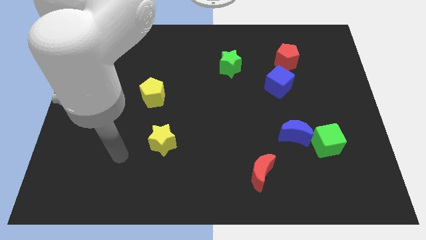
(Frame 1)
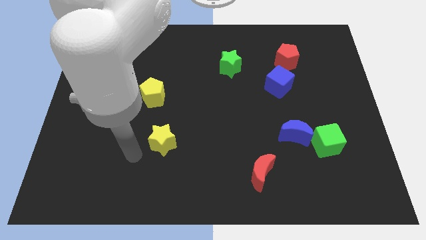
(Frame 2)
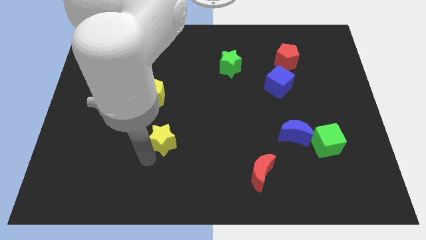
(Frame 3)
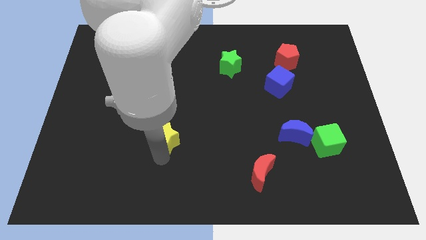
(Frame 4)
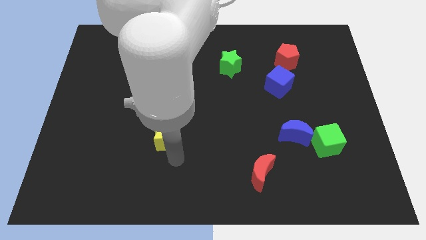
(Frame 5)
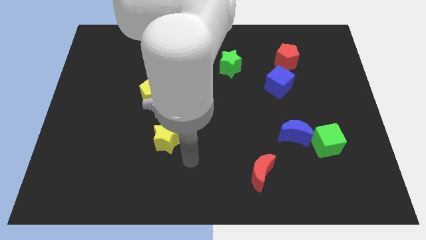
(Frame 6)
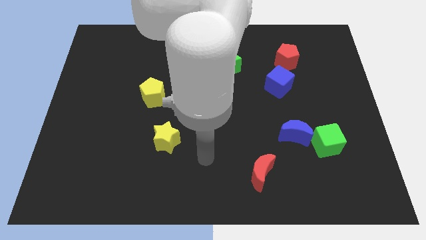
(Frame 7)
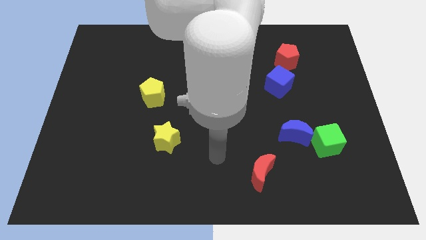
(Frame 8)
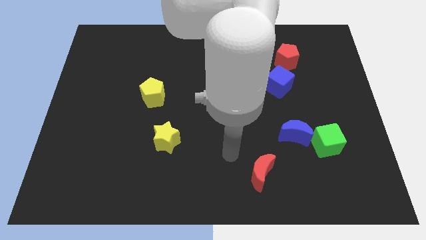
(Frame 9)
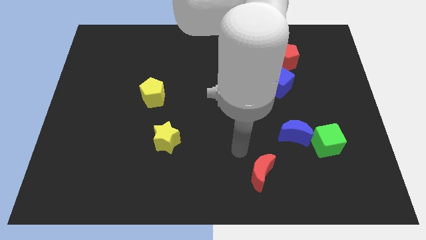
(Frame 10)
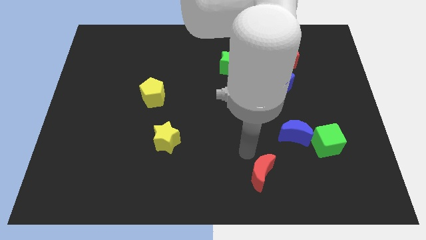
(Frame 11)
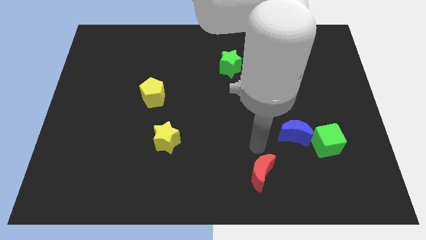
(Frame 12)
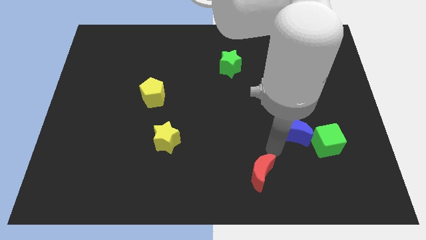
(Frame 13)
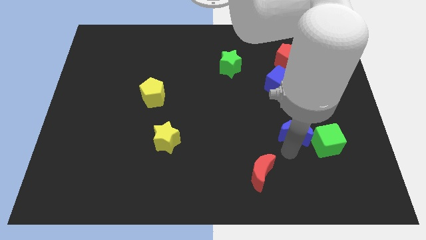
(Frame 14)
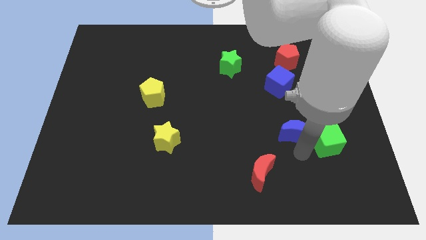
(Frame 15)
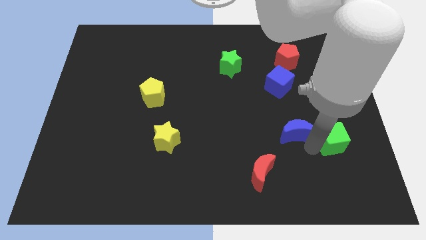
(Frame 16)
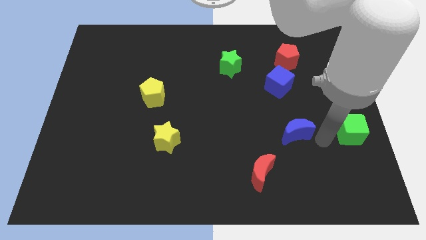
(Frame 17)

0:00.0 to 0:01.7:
pull the blue moon apart from the green cube

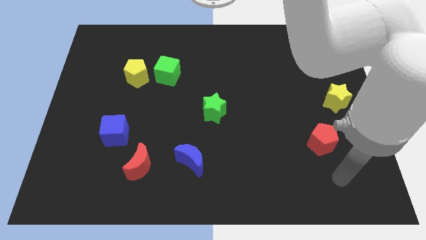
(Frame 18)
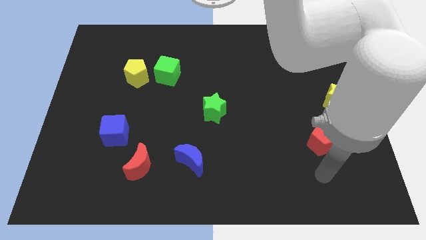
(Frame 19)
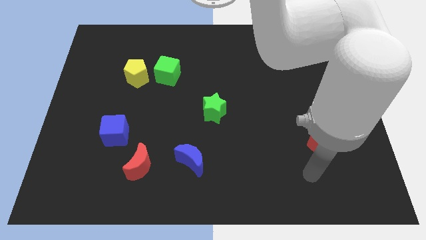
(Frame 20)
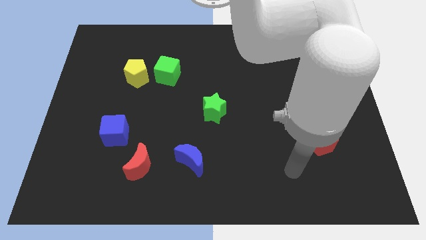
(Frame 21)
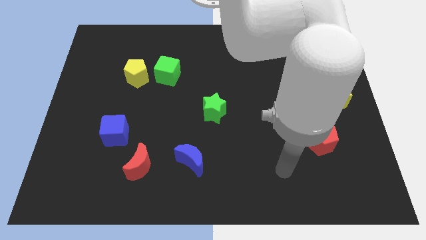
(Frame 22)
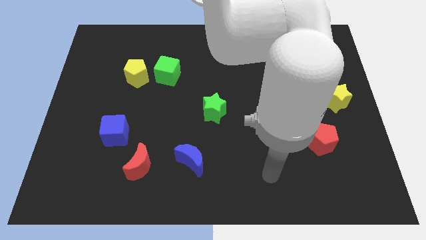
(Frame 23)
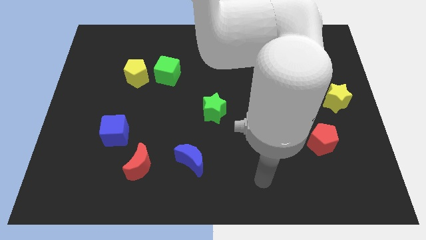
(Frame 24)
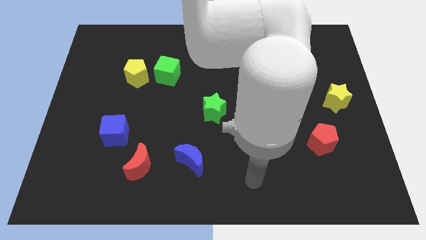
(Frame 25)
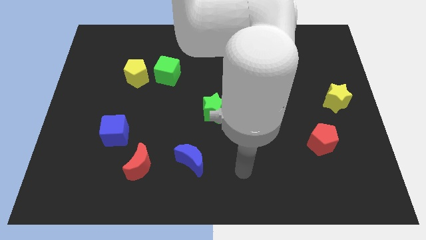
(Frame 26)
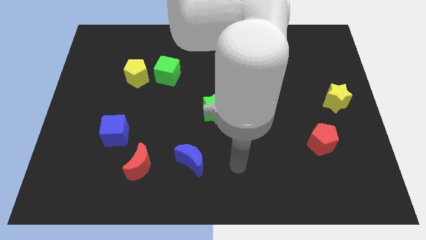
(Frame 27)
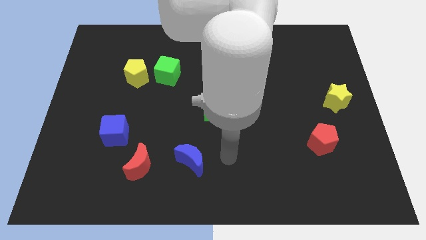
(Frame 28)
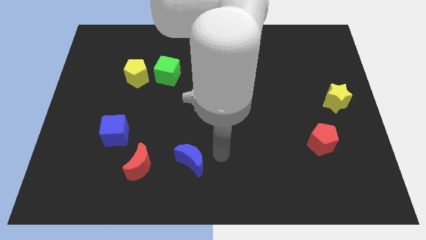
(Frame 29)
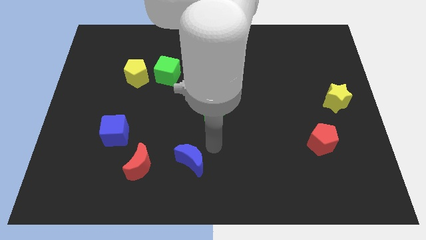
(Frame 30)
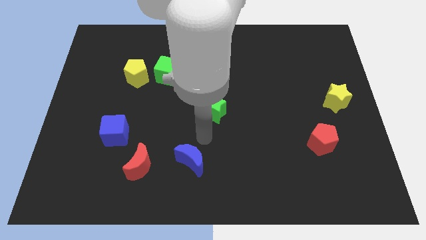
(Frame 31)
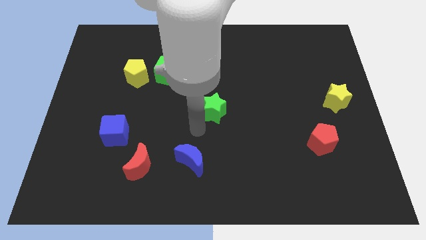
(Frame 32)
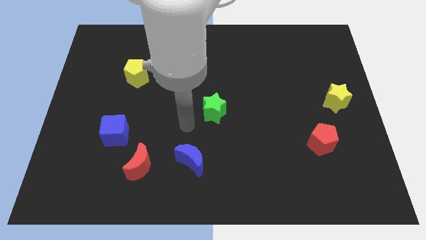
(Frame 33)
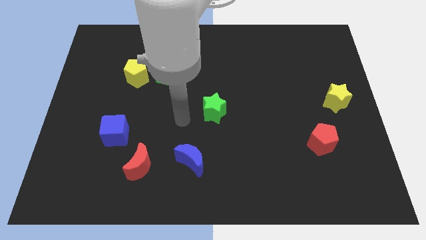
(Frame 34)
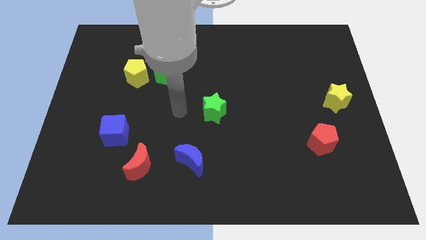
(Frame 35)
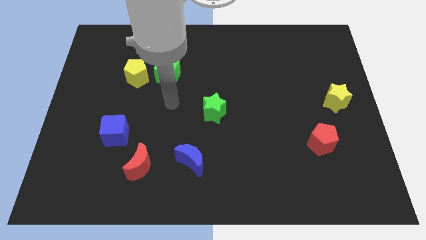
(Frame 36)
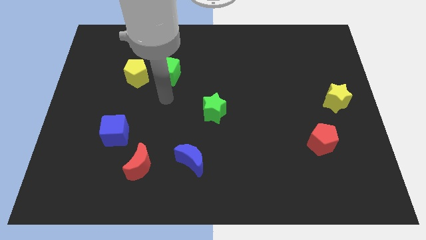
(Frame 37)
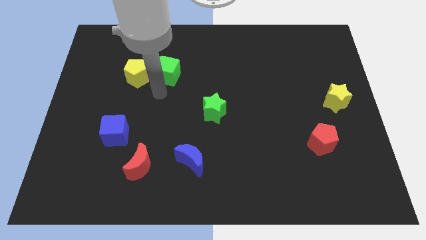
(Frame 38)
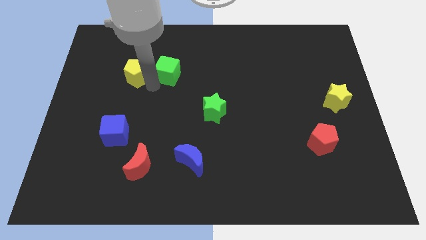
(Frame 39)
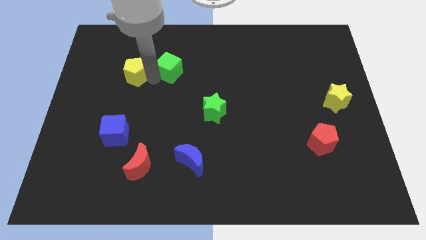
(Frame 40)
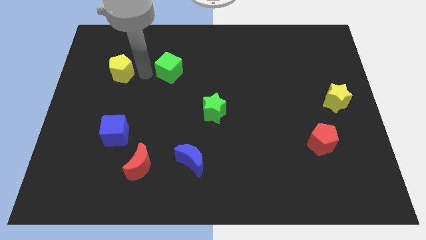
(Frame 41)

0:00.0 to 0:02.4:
pull the green cube apart from the yellow pentagon

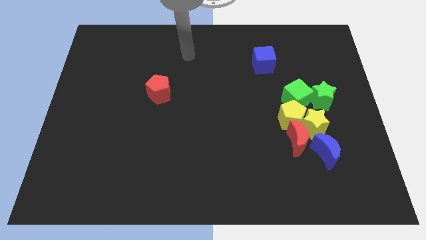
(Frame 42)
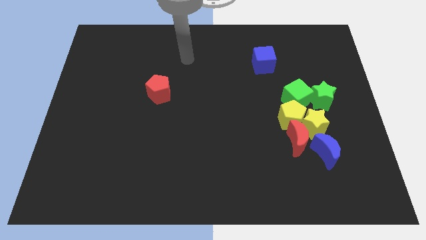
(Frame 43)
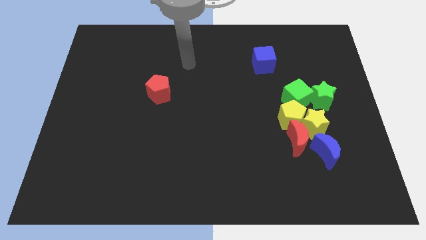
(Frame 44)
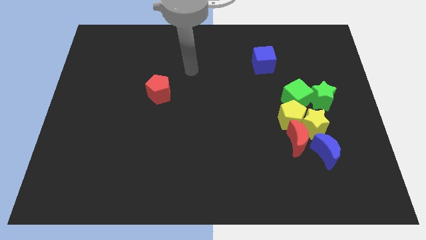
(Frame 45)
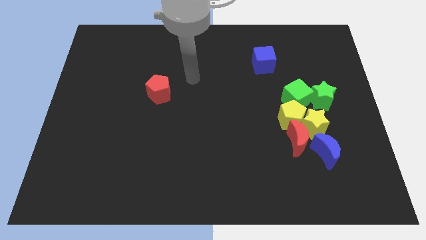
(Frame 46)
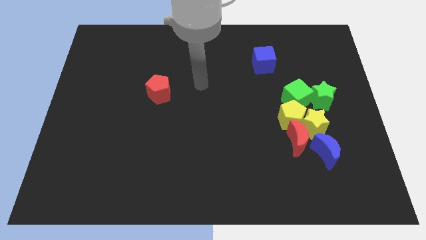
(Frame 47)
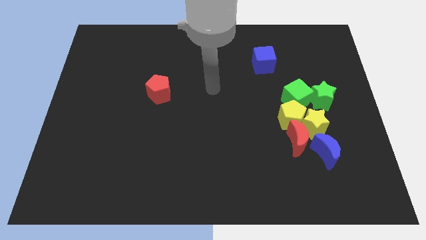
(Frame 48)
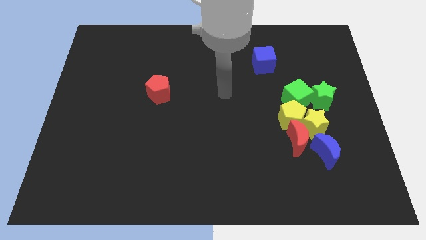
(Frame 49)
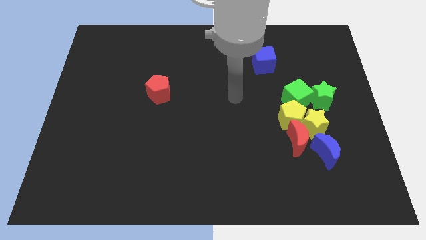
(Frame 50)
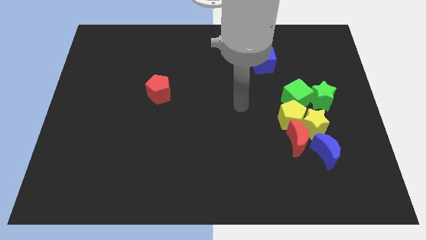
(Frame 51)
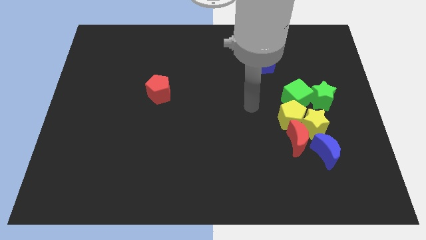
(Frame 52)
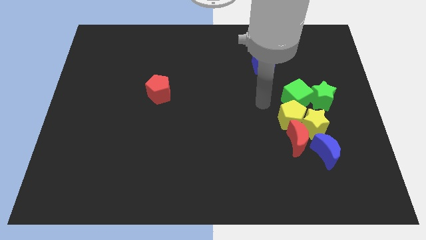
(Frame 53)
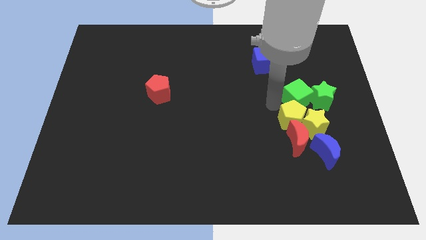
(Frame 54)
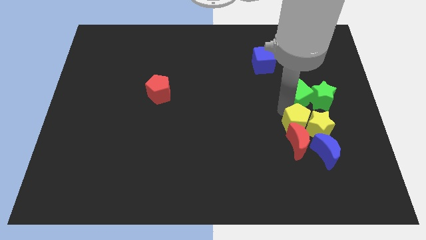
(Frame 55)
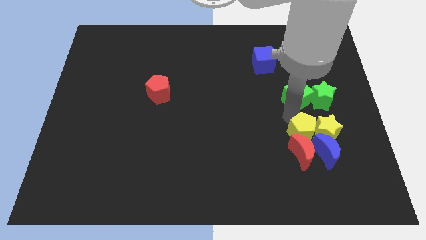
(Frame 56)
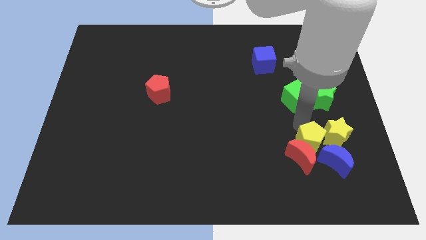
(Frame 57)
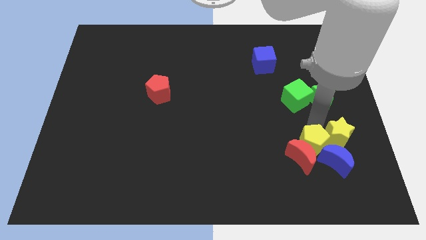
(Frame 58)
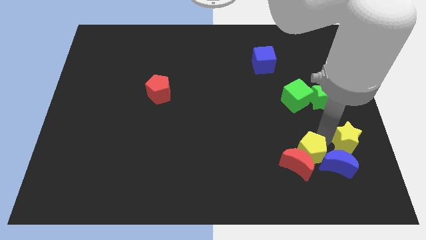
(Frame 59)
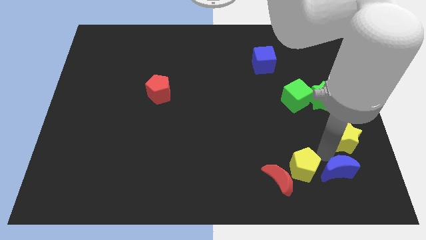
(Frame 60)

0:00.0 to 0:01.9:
move the red moon away from the yellow star, yellow pentagon, and blue moon

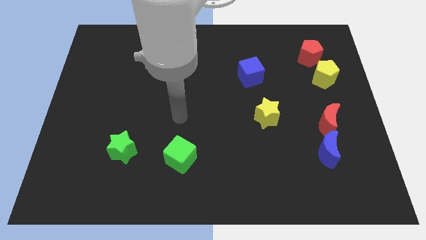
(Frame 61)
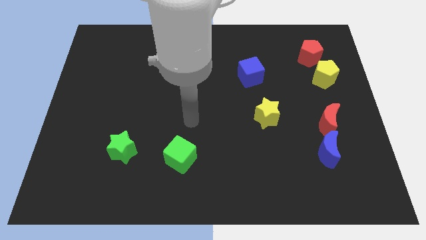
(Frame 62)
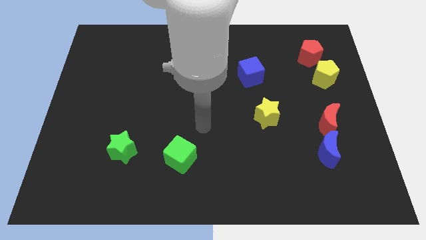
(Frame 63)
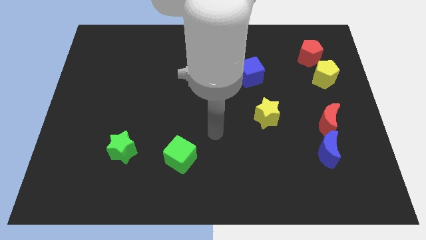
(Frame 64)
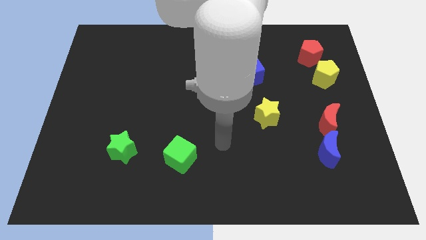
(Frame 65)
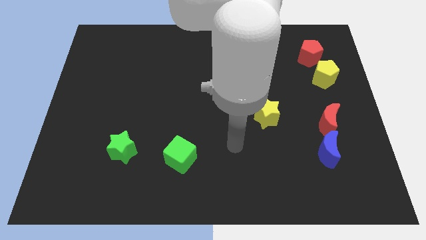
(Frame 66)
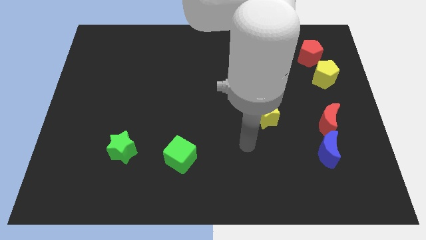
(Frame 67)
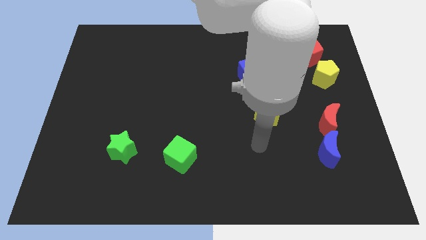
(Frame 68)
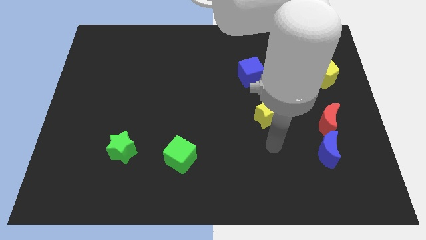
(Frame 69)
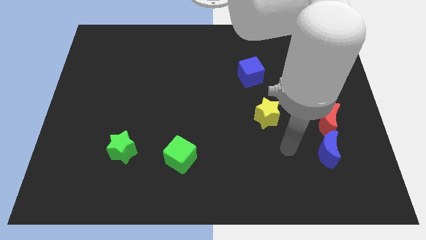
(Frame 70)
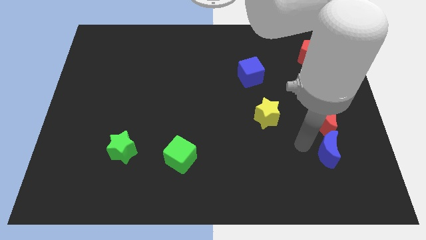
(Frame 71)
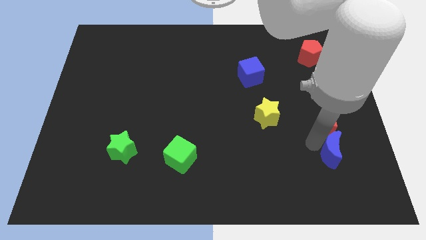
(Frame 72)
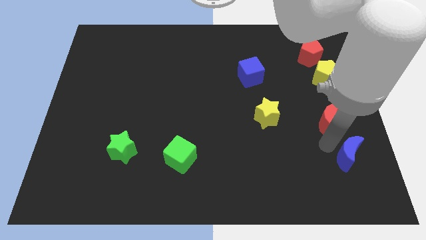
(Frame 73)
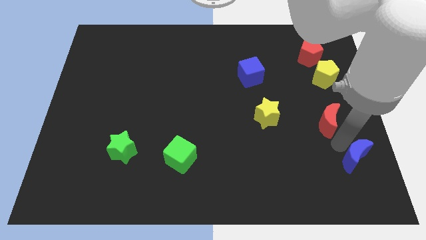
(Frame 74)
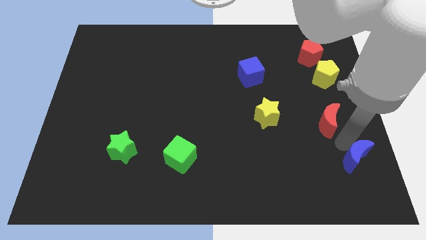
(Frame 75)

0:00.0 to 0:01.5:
separate the red moon from the blue moon

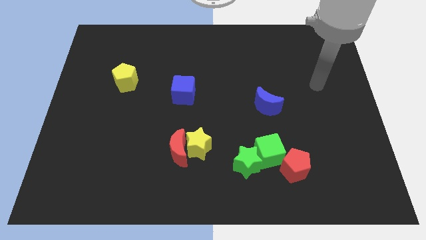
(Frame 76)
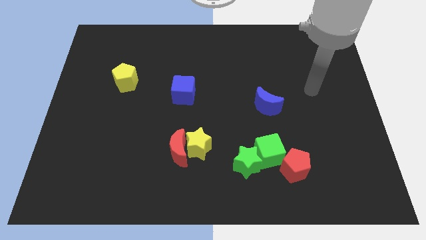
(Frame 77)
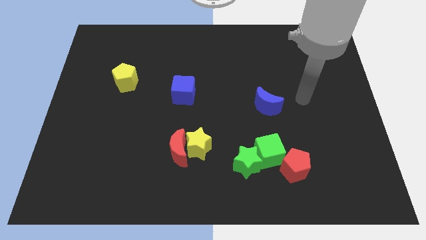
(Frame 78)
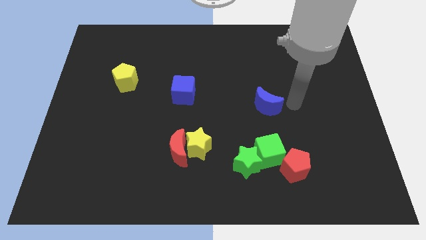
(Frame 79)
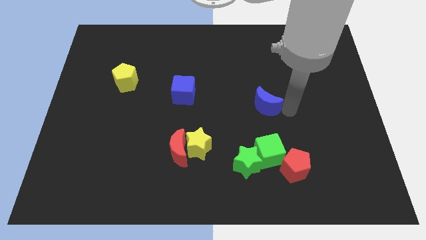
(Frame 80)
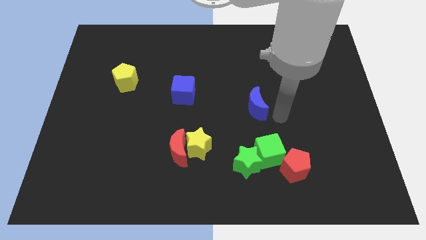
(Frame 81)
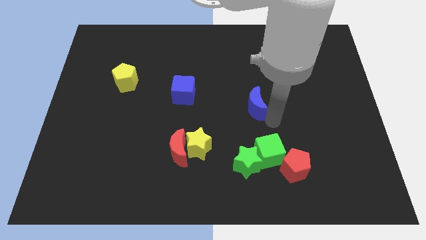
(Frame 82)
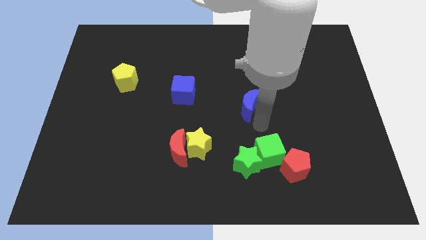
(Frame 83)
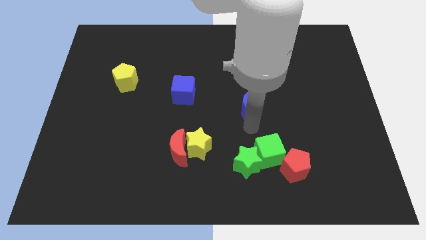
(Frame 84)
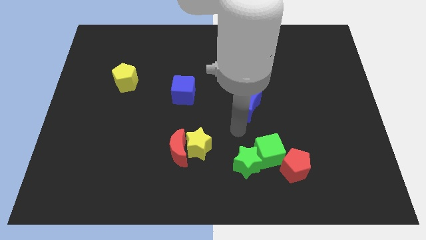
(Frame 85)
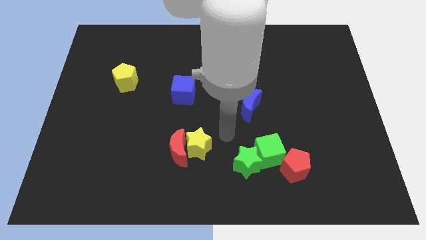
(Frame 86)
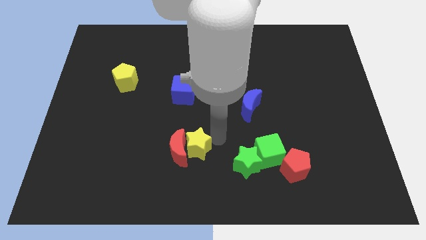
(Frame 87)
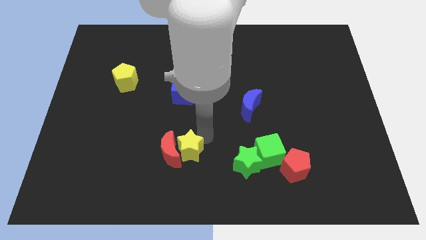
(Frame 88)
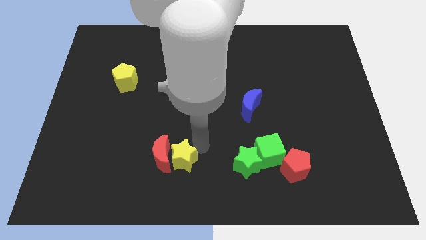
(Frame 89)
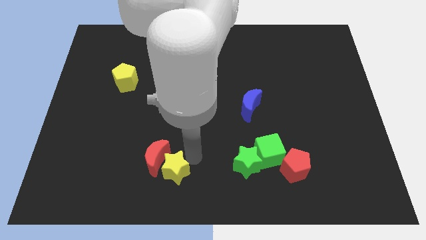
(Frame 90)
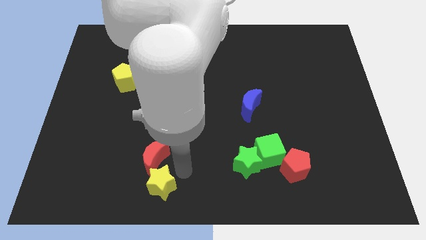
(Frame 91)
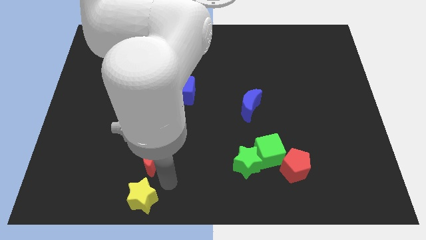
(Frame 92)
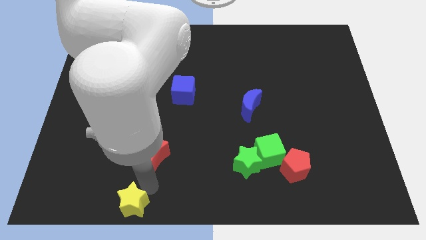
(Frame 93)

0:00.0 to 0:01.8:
separate the red moon from the yellow star
